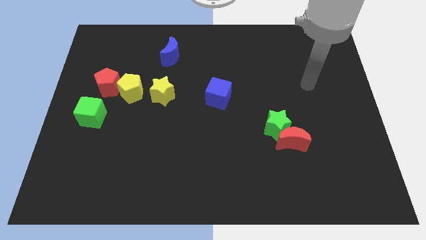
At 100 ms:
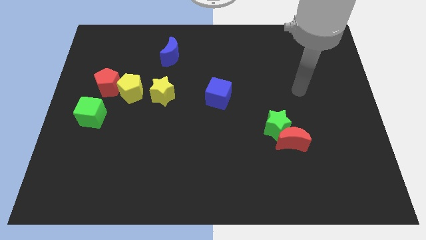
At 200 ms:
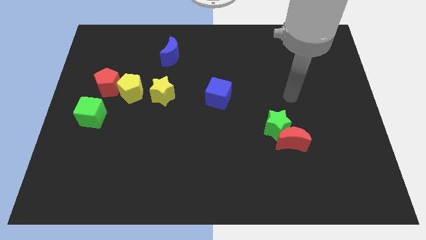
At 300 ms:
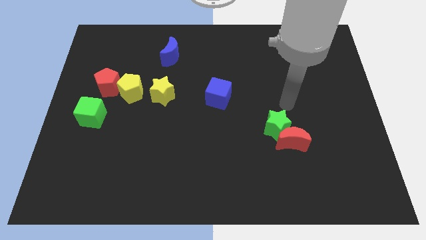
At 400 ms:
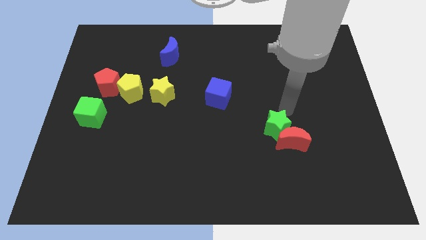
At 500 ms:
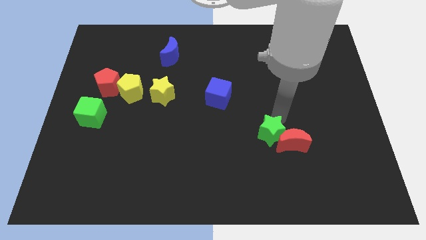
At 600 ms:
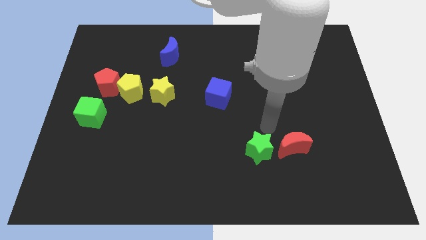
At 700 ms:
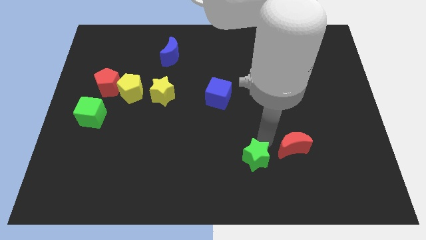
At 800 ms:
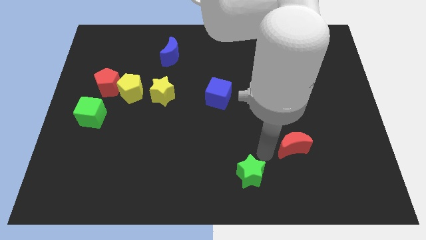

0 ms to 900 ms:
move the red moon away from the green star

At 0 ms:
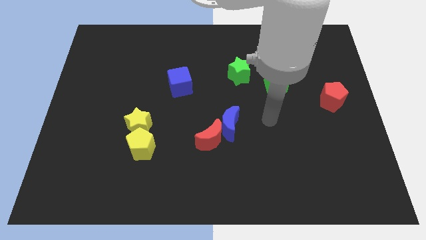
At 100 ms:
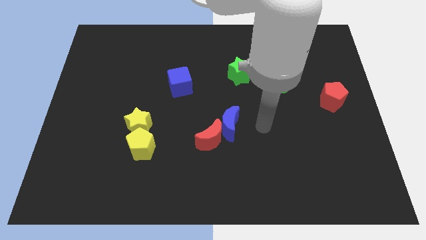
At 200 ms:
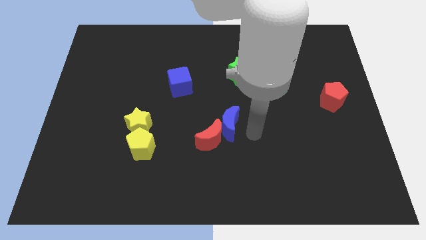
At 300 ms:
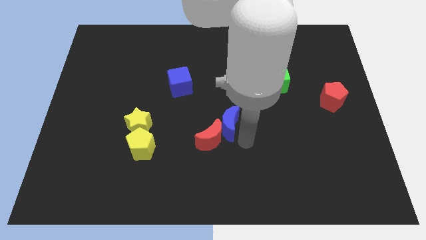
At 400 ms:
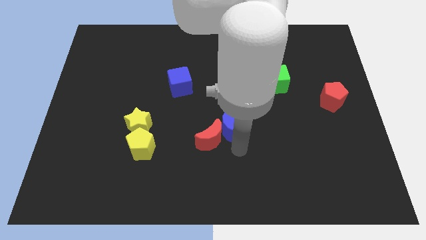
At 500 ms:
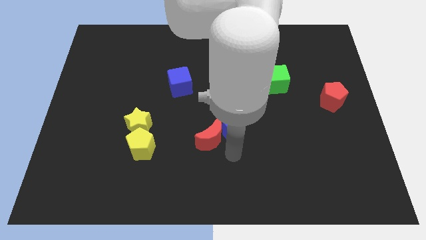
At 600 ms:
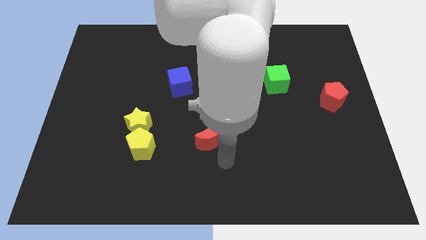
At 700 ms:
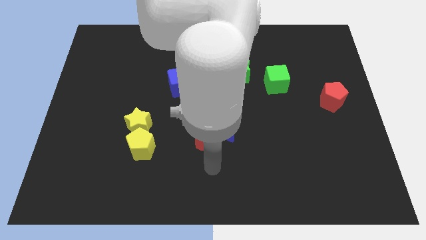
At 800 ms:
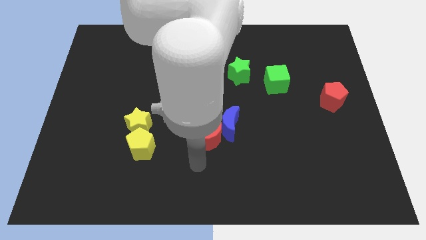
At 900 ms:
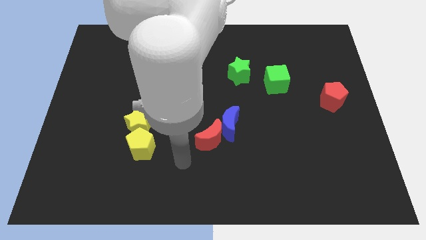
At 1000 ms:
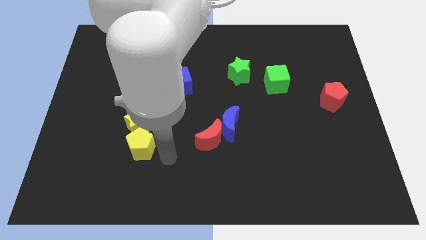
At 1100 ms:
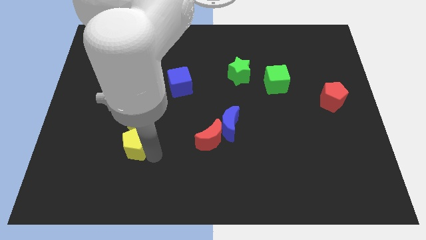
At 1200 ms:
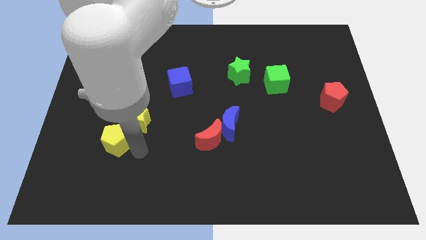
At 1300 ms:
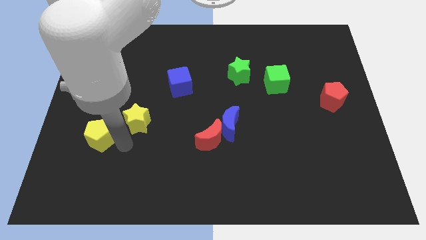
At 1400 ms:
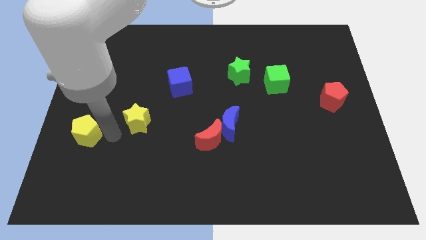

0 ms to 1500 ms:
separate the yellow star from the yellow pentagon

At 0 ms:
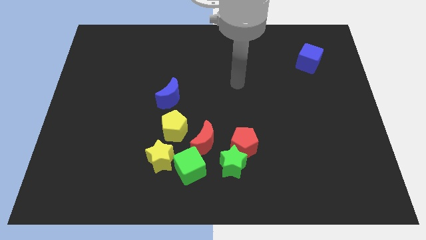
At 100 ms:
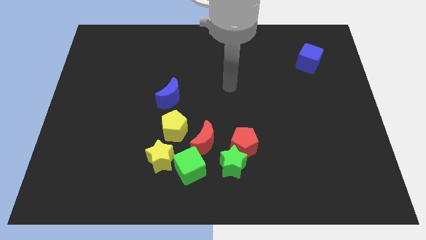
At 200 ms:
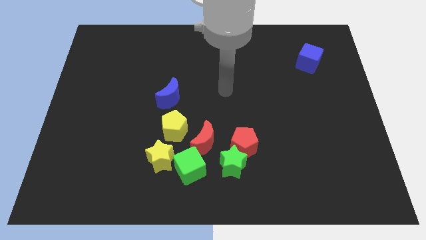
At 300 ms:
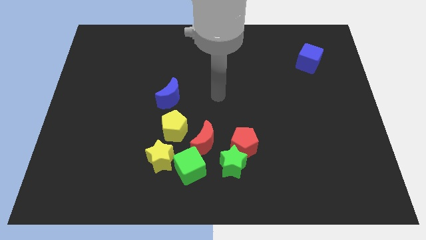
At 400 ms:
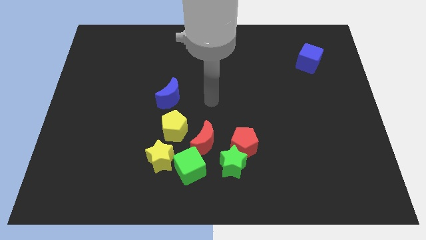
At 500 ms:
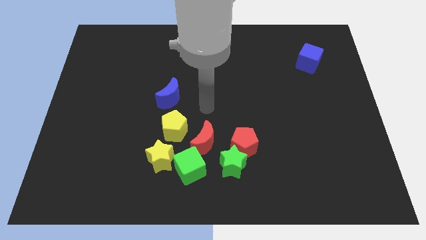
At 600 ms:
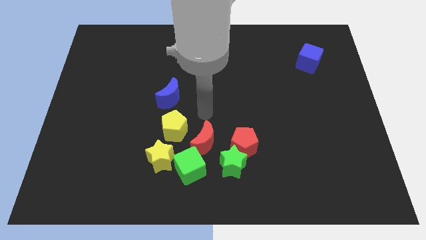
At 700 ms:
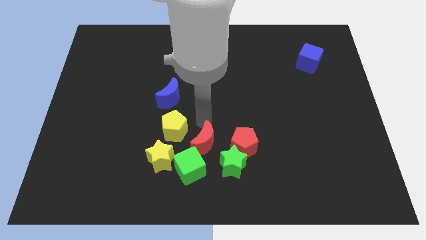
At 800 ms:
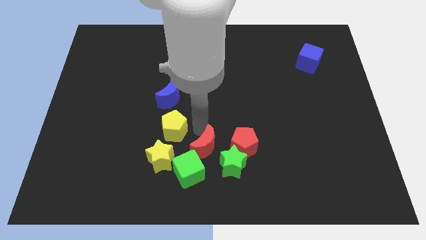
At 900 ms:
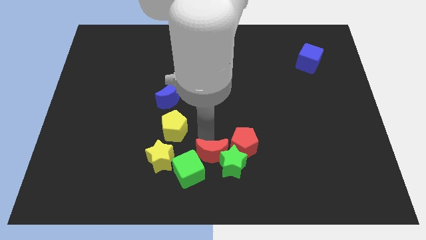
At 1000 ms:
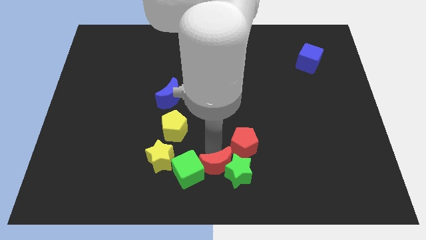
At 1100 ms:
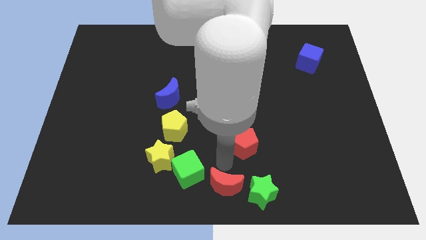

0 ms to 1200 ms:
pull the red pentagon apart from the green star and red moon

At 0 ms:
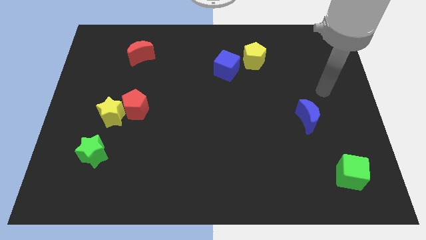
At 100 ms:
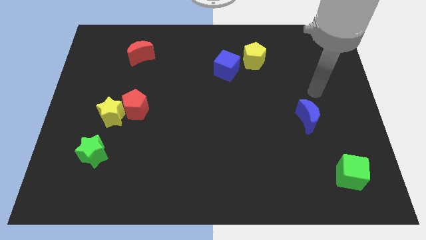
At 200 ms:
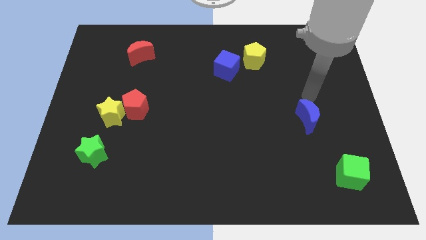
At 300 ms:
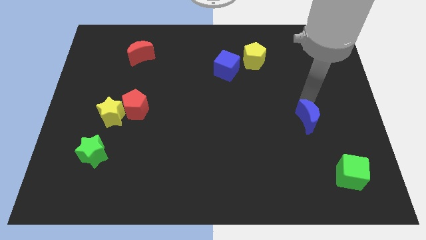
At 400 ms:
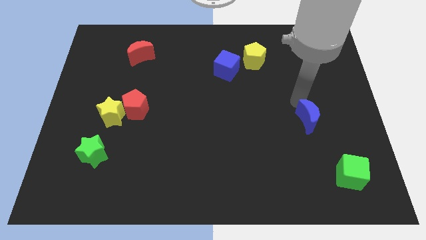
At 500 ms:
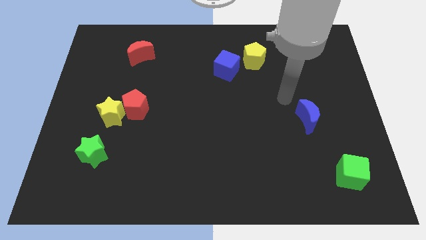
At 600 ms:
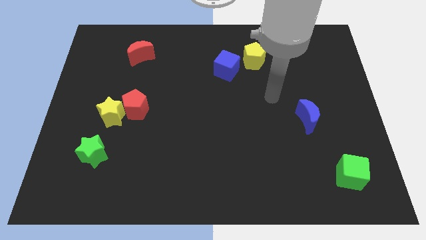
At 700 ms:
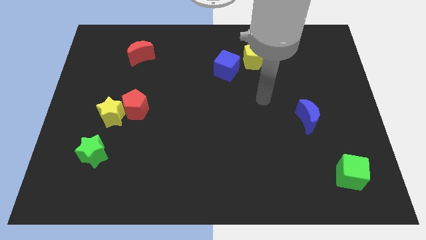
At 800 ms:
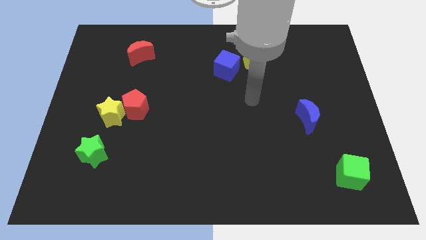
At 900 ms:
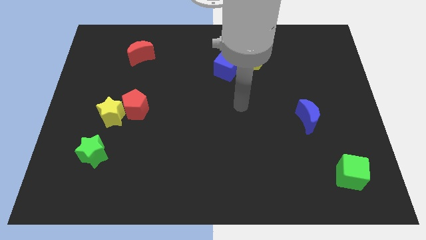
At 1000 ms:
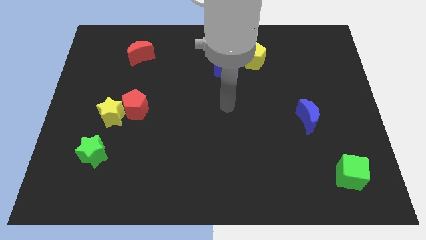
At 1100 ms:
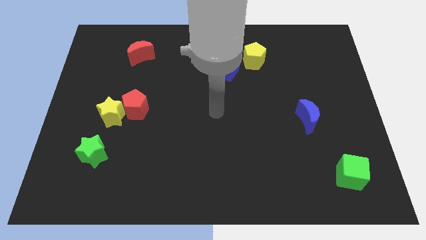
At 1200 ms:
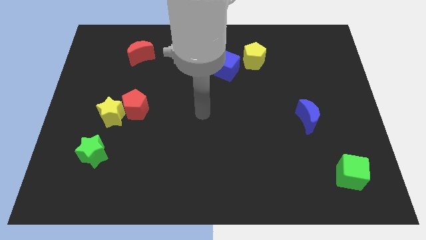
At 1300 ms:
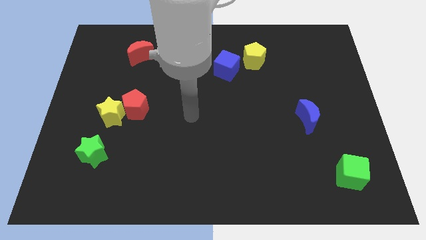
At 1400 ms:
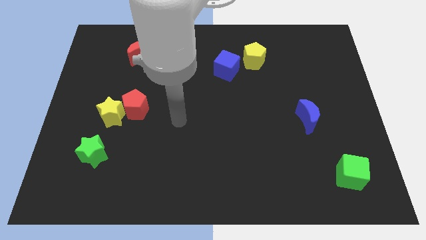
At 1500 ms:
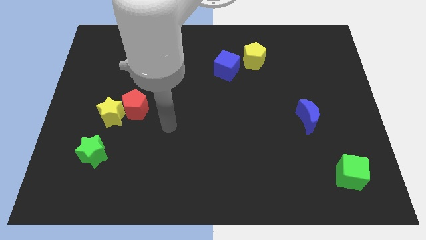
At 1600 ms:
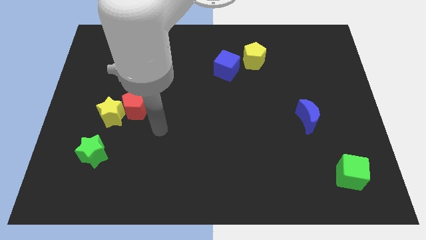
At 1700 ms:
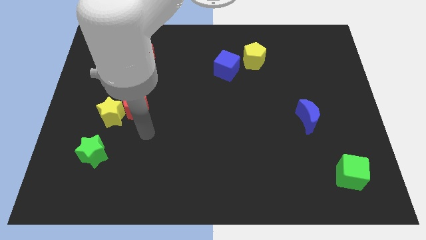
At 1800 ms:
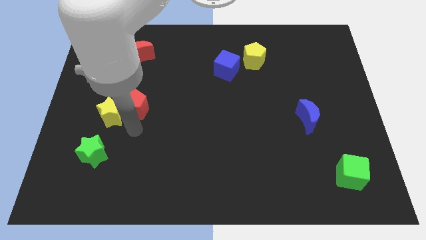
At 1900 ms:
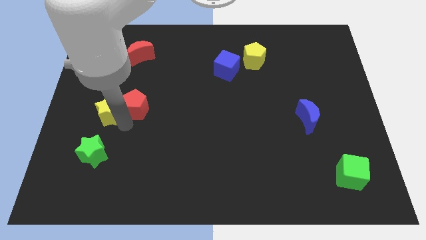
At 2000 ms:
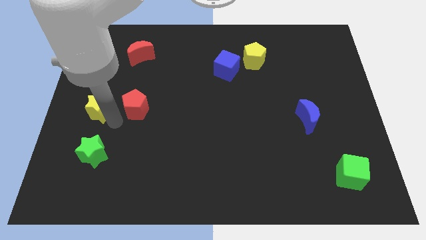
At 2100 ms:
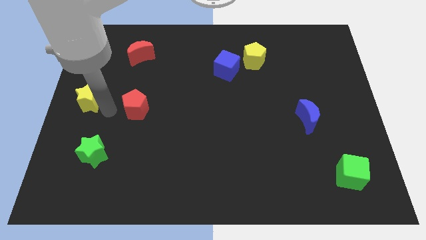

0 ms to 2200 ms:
move the red pentagon away from the yellow star

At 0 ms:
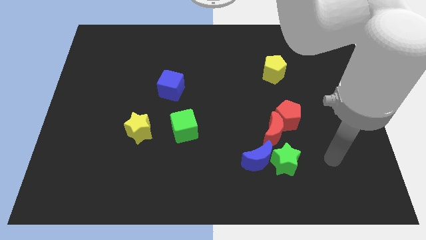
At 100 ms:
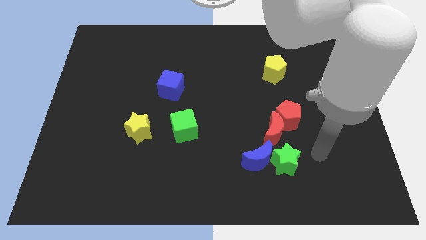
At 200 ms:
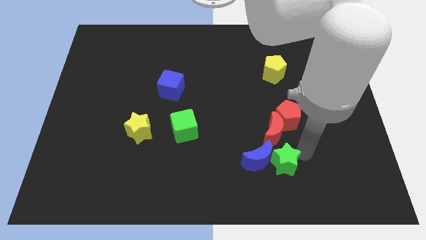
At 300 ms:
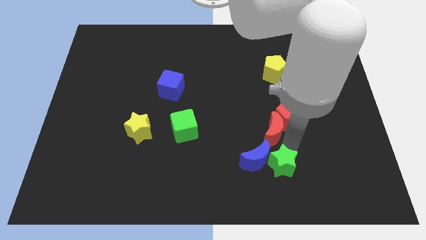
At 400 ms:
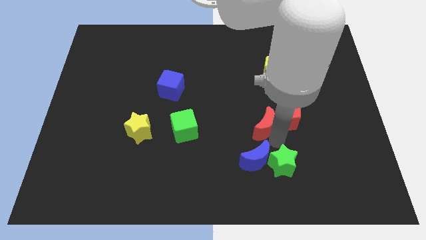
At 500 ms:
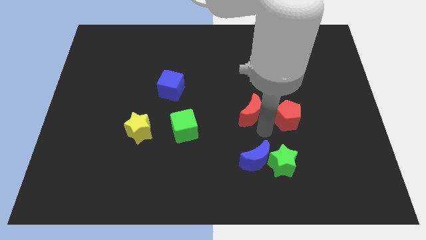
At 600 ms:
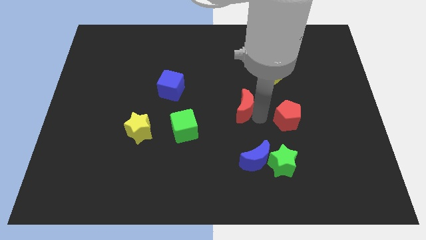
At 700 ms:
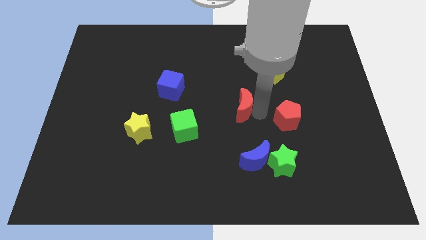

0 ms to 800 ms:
pull the red pentagon apart from the red moon

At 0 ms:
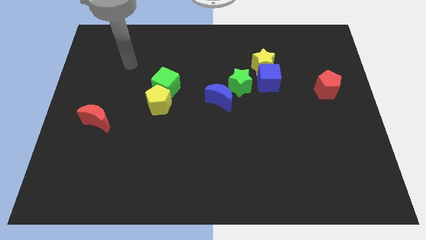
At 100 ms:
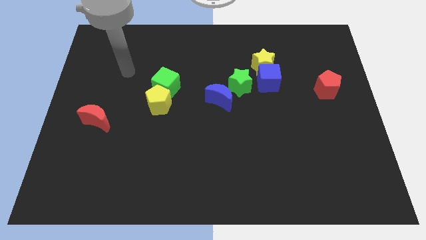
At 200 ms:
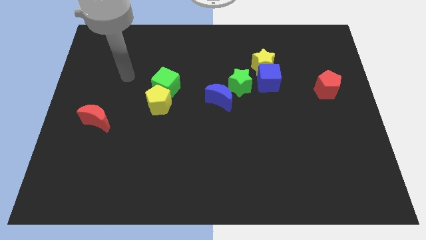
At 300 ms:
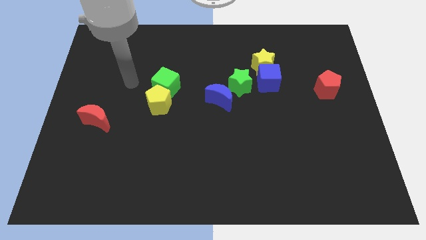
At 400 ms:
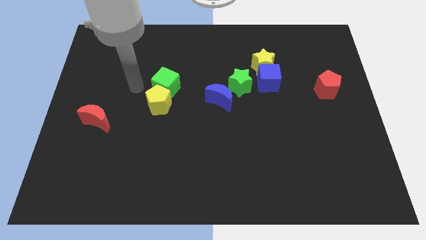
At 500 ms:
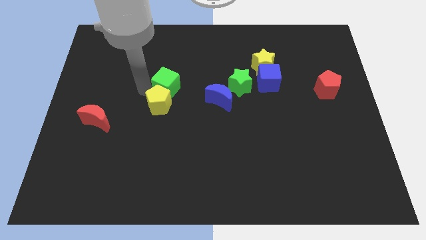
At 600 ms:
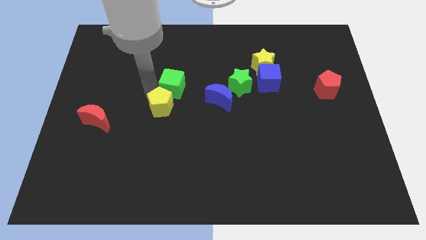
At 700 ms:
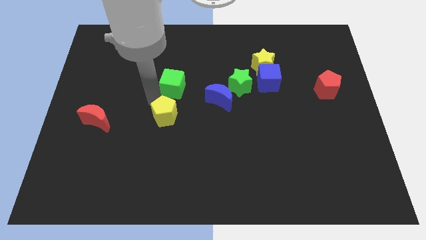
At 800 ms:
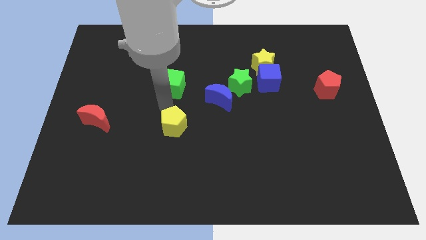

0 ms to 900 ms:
separate the green cube from the yellow pentagon

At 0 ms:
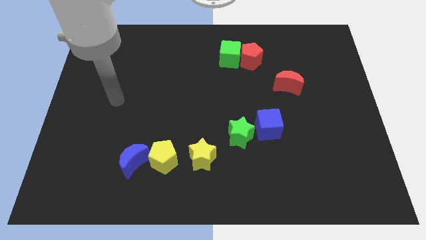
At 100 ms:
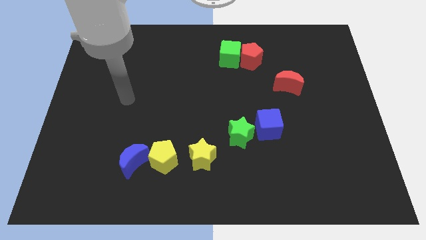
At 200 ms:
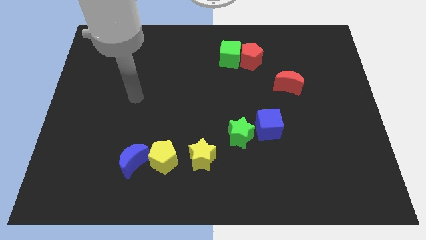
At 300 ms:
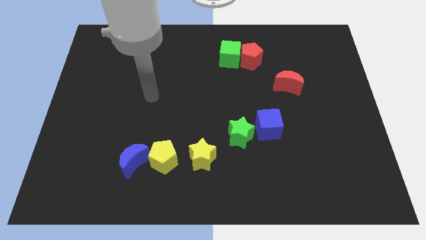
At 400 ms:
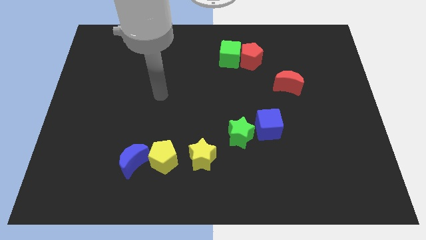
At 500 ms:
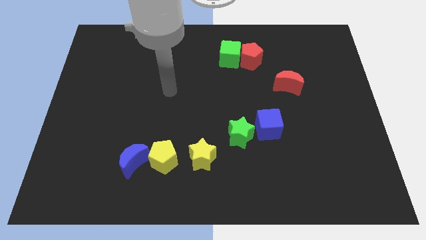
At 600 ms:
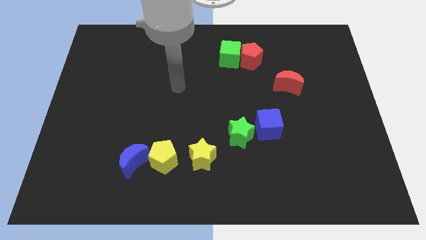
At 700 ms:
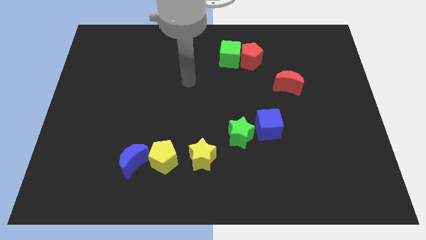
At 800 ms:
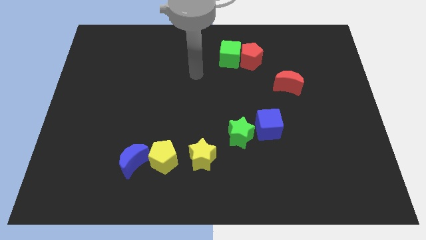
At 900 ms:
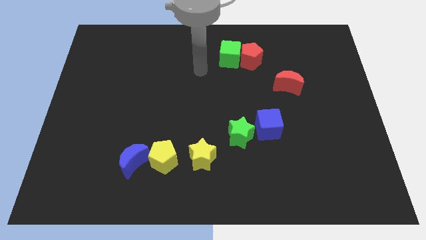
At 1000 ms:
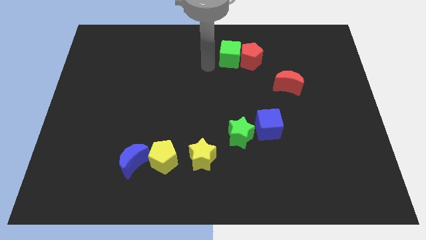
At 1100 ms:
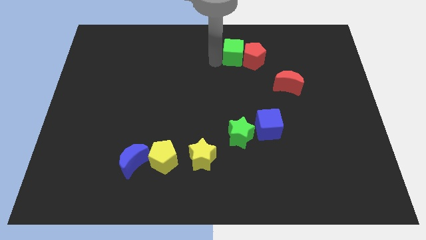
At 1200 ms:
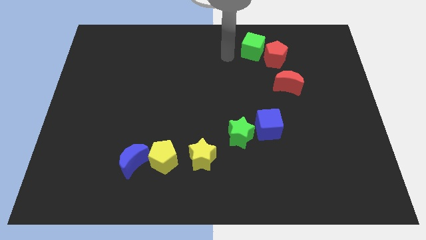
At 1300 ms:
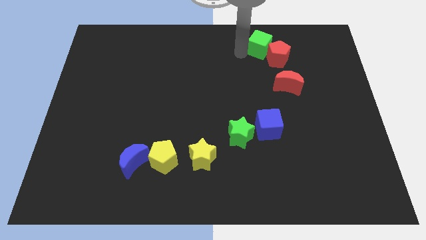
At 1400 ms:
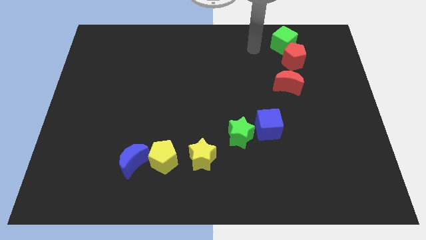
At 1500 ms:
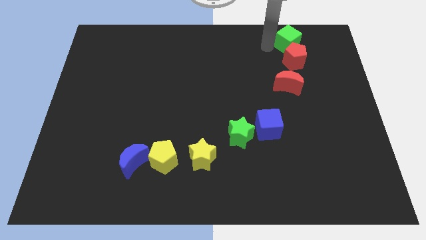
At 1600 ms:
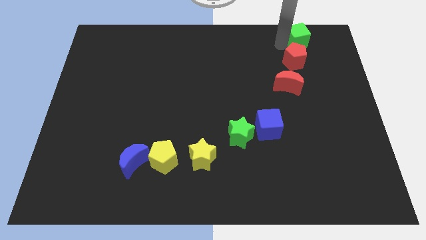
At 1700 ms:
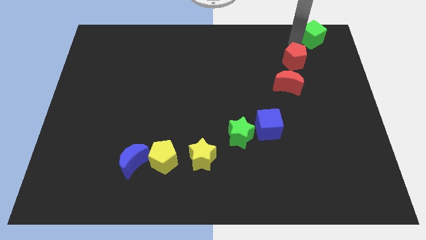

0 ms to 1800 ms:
separate the red pentagon from the green cube
